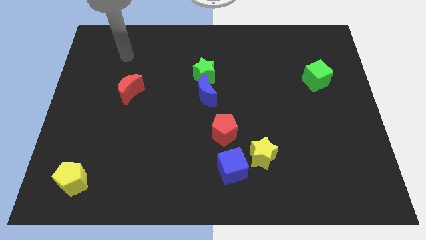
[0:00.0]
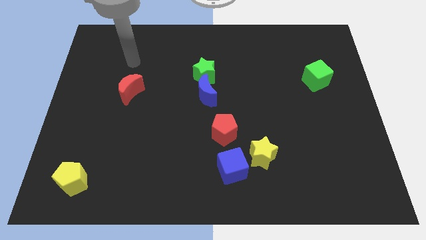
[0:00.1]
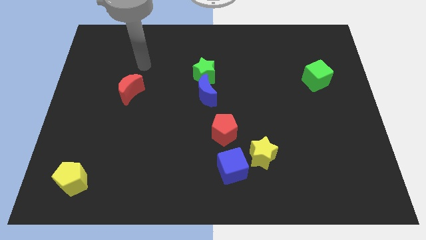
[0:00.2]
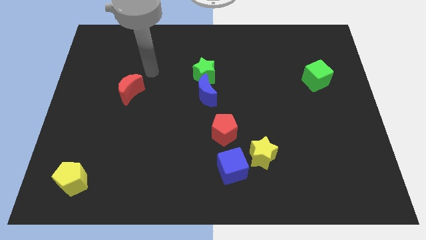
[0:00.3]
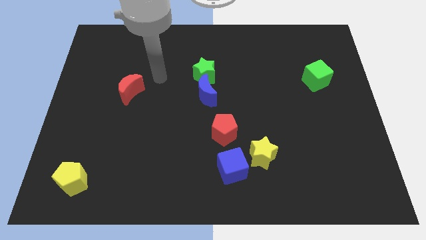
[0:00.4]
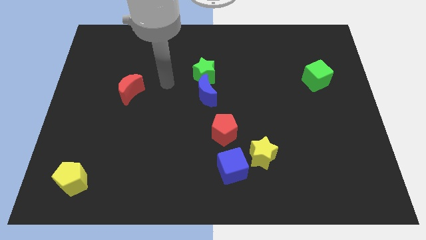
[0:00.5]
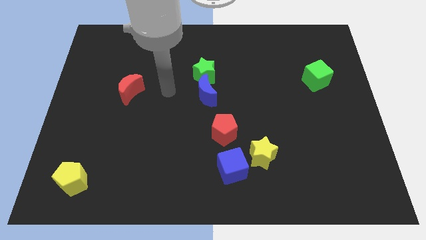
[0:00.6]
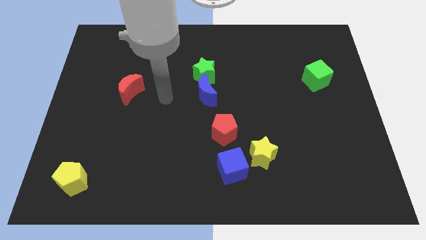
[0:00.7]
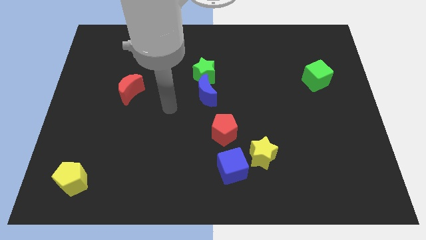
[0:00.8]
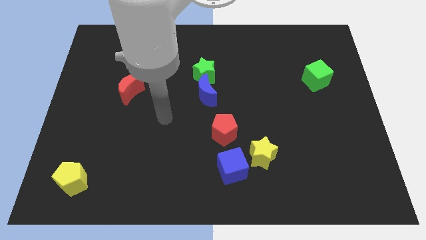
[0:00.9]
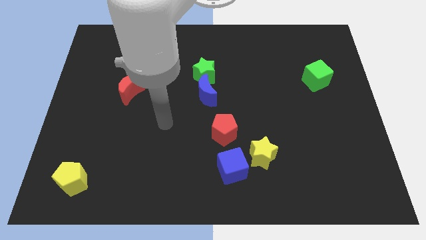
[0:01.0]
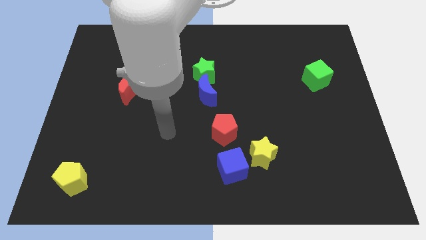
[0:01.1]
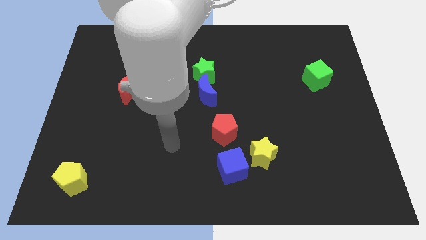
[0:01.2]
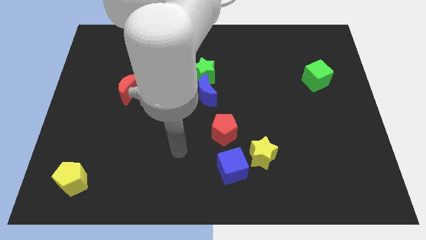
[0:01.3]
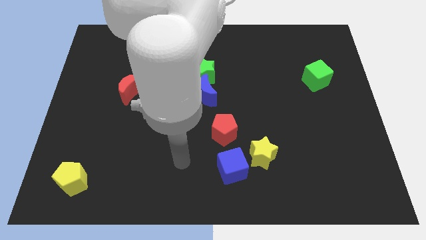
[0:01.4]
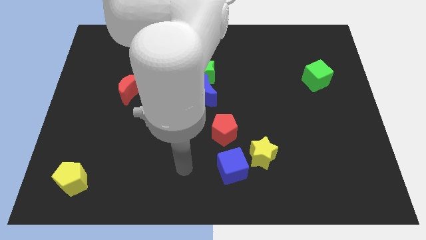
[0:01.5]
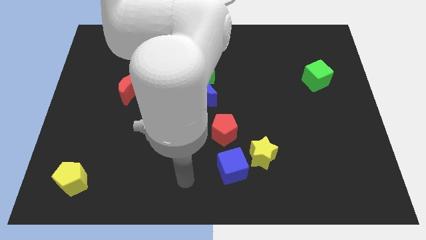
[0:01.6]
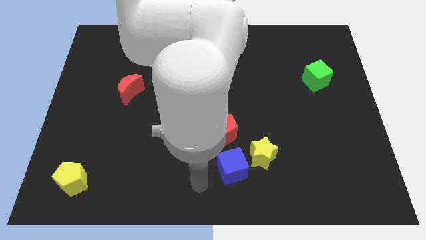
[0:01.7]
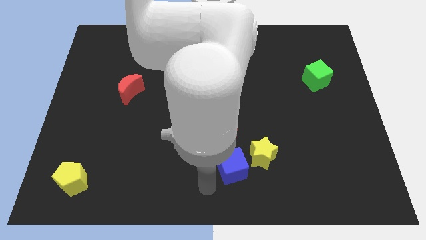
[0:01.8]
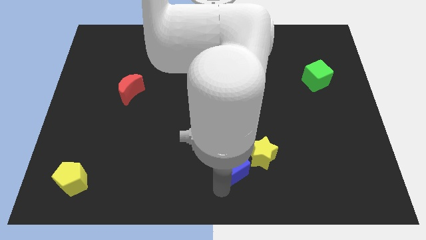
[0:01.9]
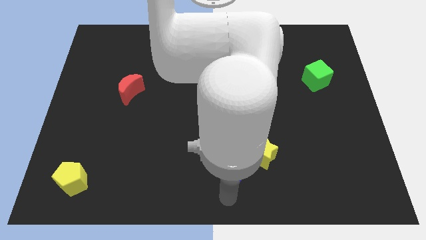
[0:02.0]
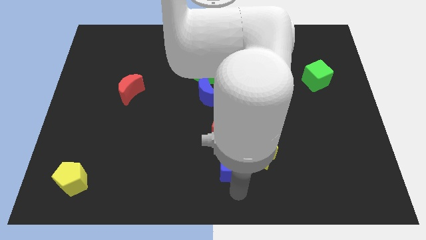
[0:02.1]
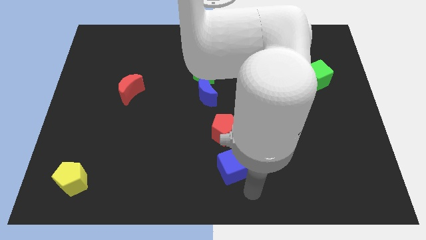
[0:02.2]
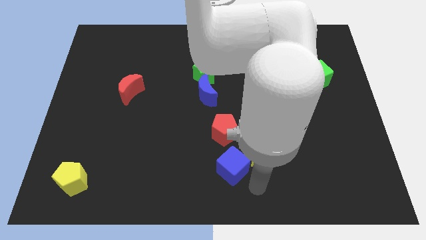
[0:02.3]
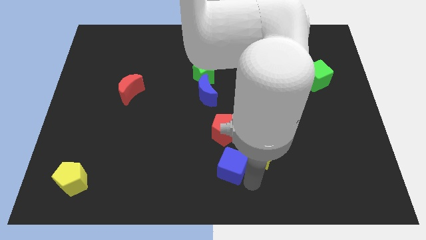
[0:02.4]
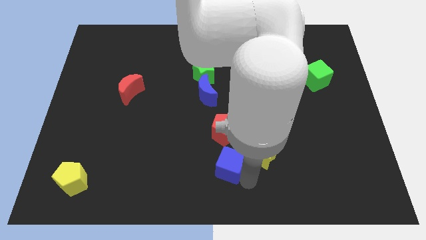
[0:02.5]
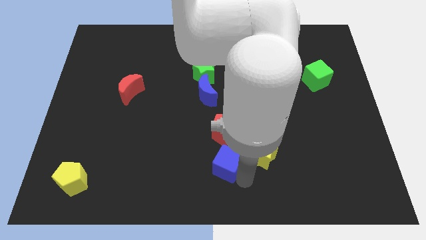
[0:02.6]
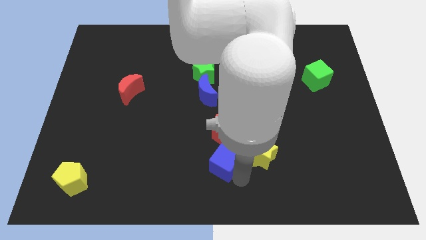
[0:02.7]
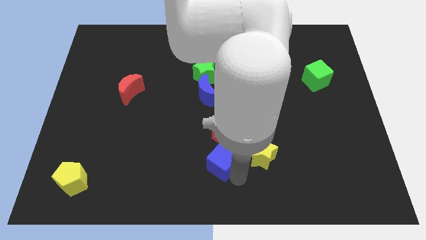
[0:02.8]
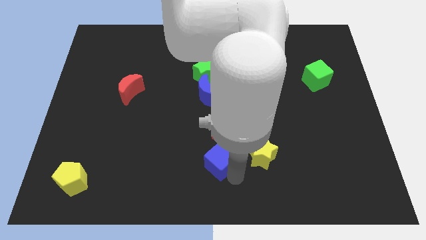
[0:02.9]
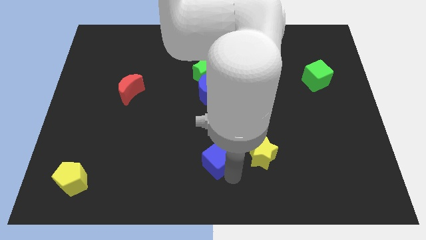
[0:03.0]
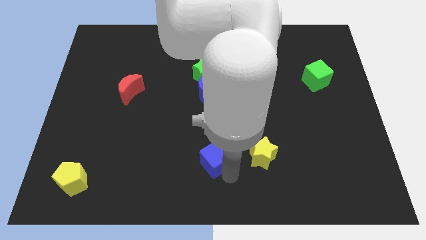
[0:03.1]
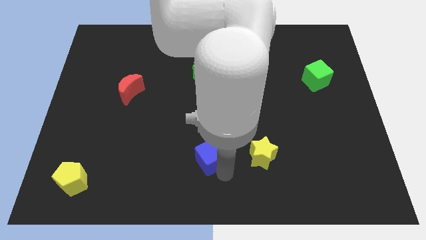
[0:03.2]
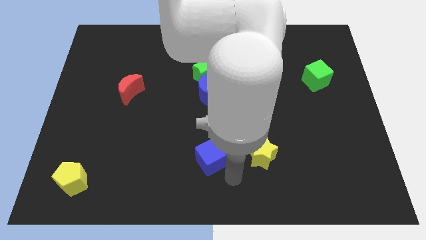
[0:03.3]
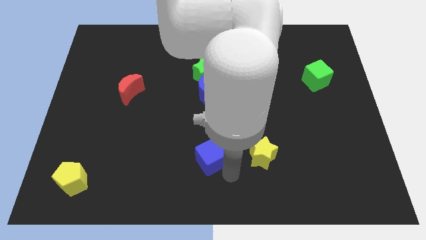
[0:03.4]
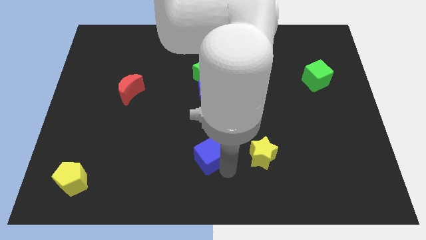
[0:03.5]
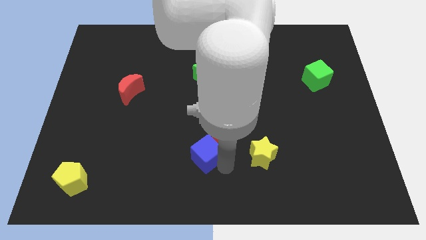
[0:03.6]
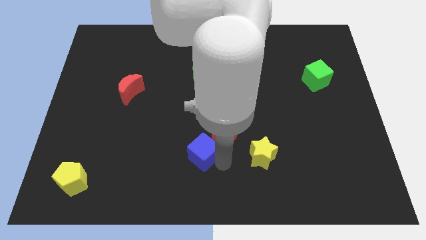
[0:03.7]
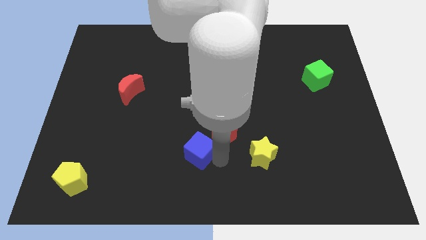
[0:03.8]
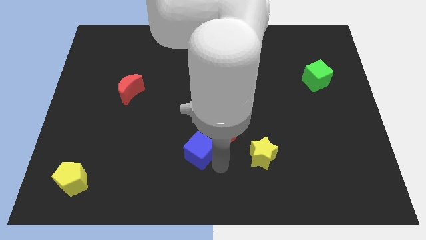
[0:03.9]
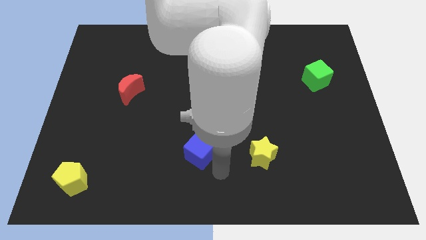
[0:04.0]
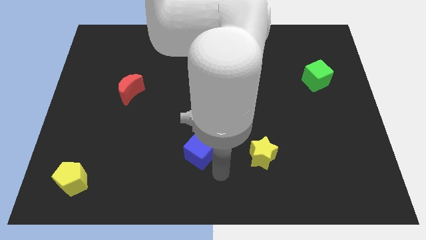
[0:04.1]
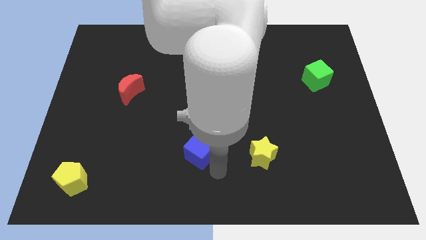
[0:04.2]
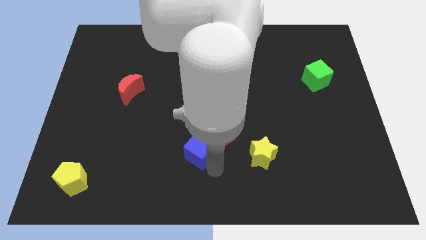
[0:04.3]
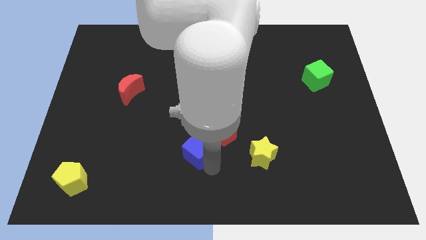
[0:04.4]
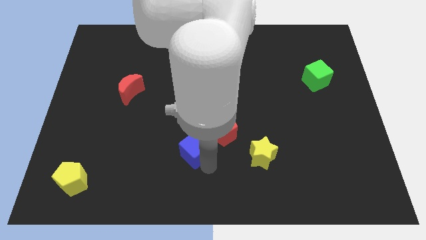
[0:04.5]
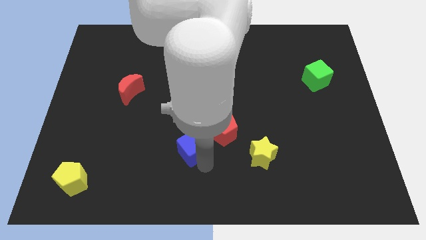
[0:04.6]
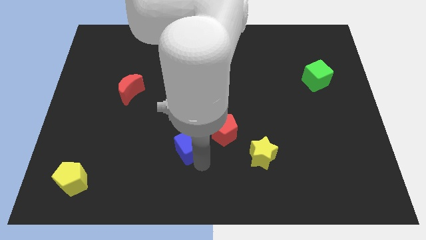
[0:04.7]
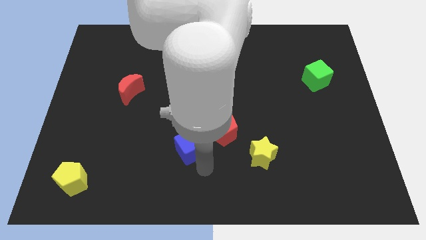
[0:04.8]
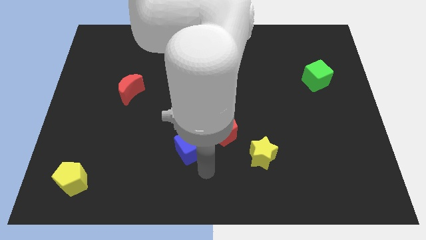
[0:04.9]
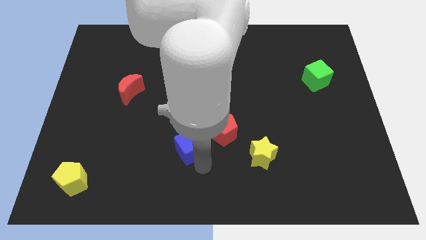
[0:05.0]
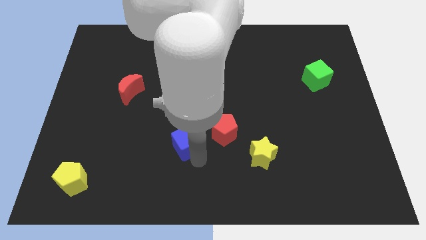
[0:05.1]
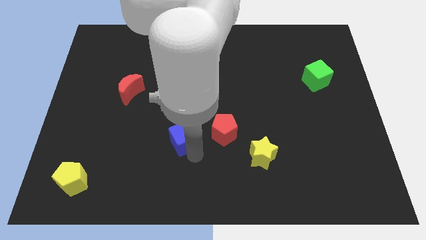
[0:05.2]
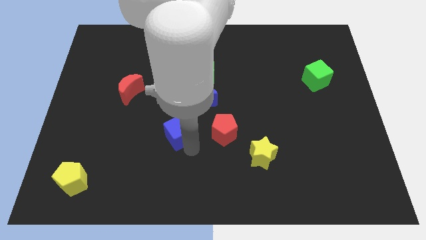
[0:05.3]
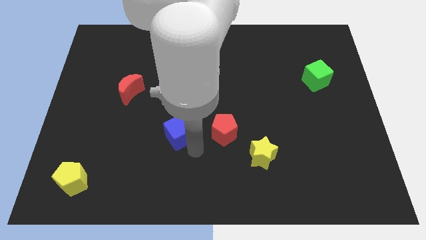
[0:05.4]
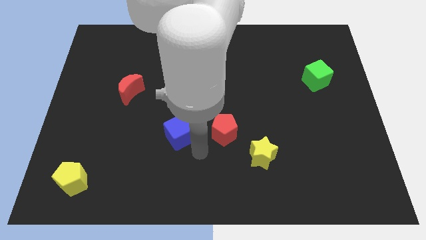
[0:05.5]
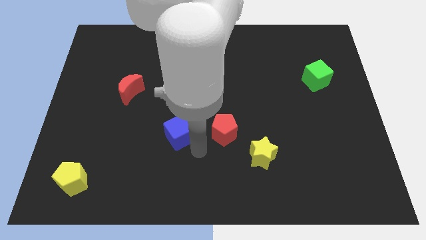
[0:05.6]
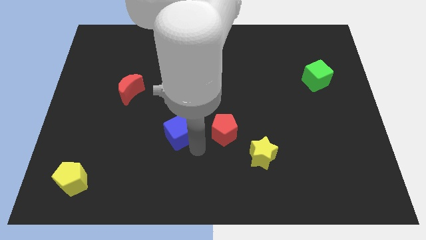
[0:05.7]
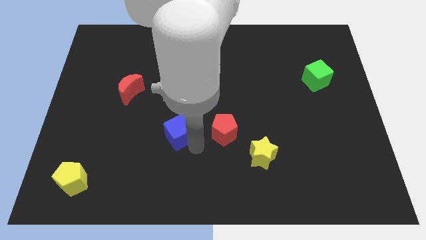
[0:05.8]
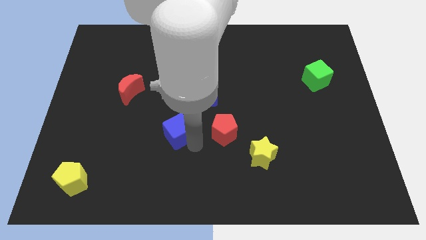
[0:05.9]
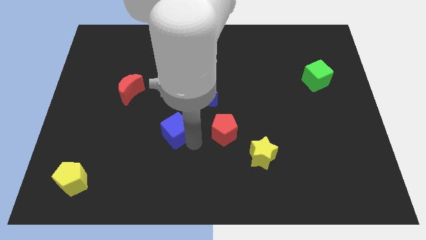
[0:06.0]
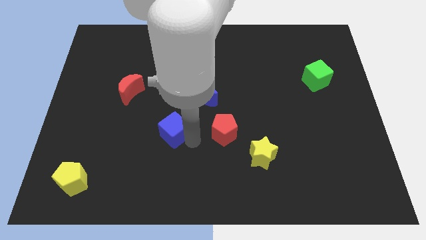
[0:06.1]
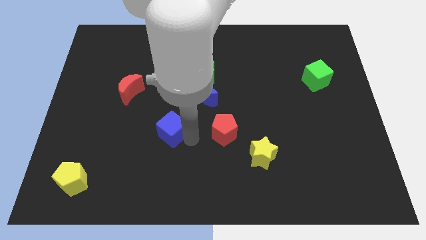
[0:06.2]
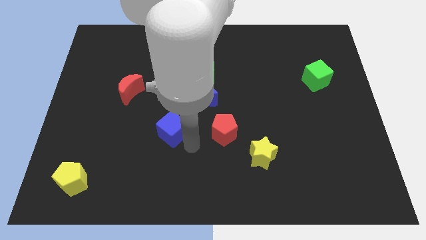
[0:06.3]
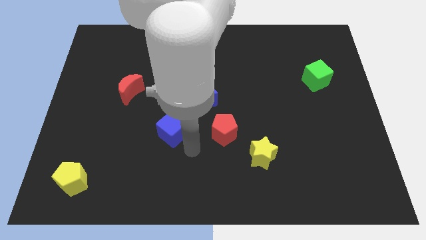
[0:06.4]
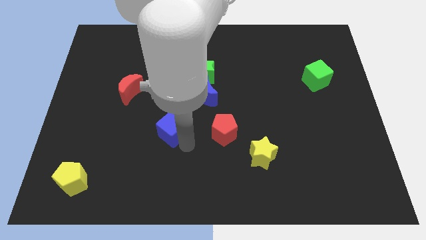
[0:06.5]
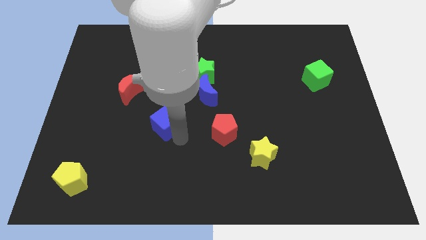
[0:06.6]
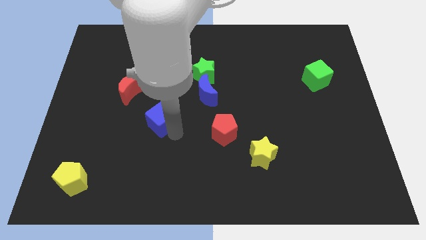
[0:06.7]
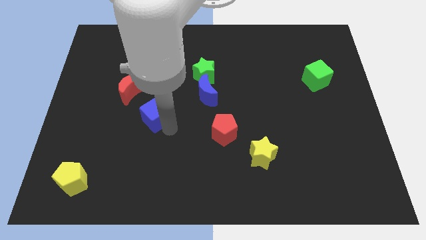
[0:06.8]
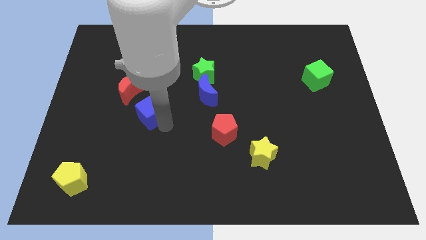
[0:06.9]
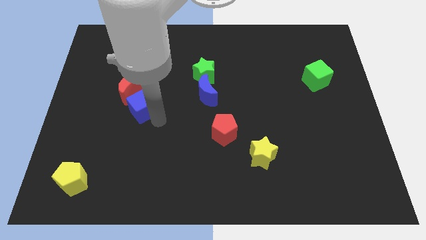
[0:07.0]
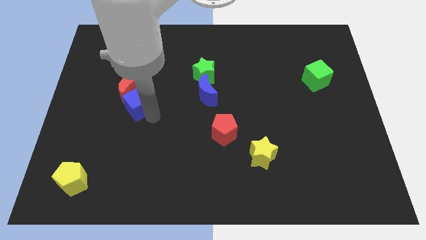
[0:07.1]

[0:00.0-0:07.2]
push the blue cube towards the red moon

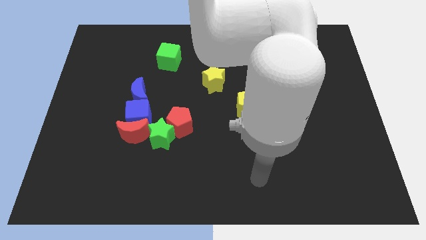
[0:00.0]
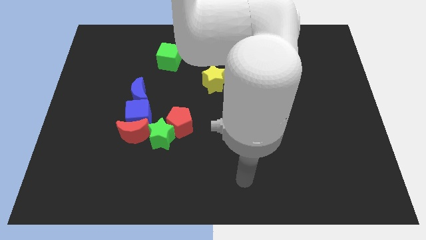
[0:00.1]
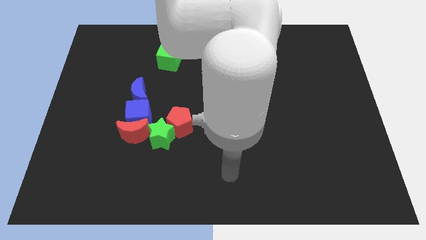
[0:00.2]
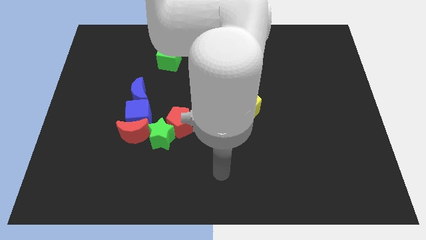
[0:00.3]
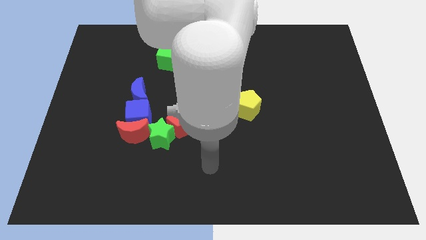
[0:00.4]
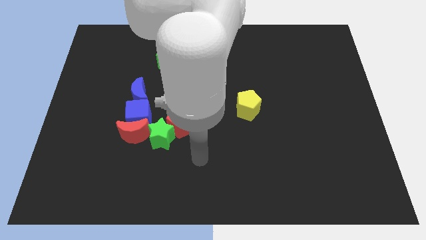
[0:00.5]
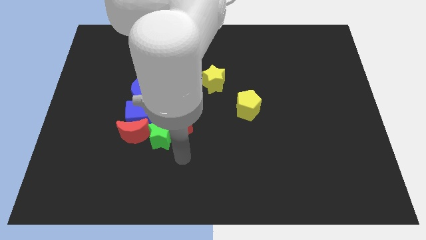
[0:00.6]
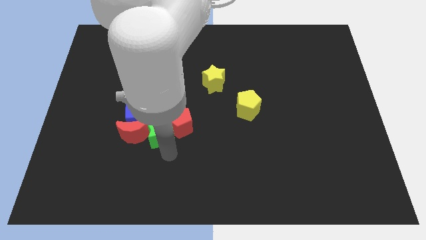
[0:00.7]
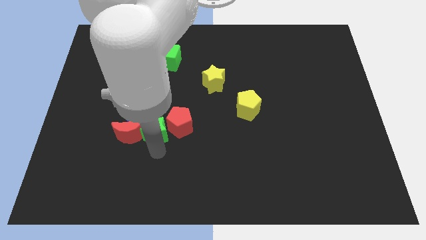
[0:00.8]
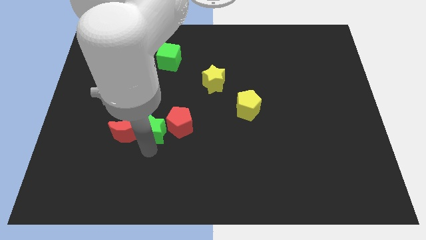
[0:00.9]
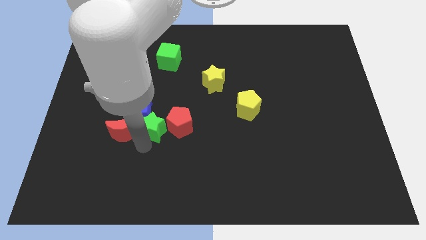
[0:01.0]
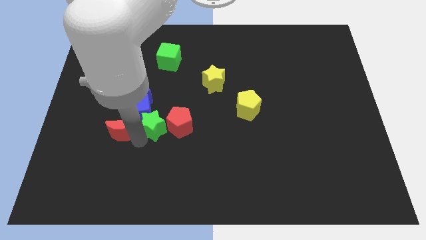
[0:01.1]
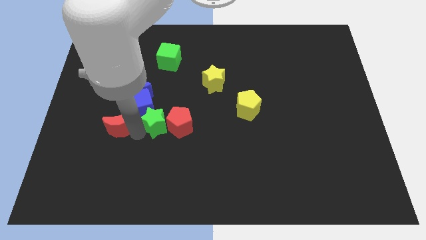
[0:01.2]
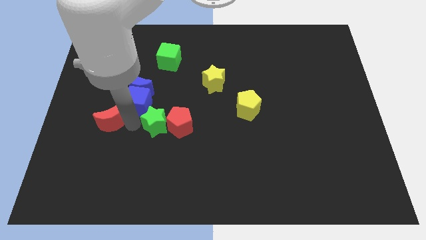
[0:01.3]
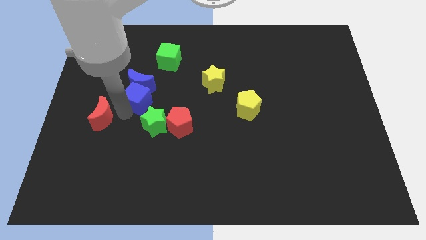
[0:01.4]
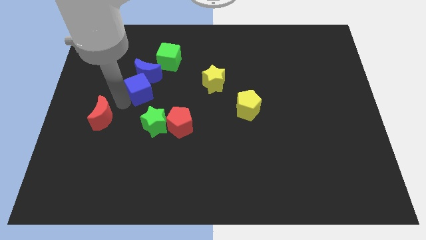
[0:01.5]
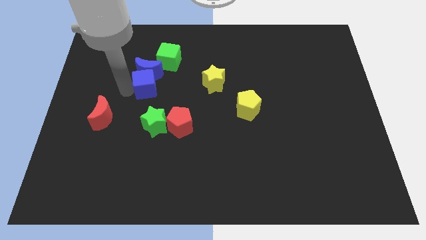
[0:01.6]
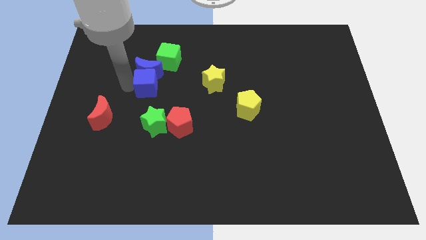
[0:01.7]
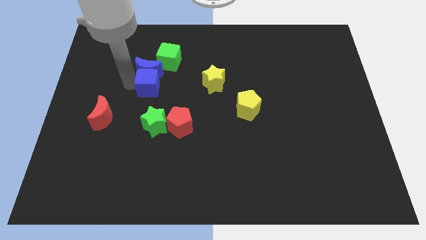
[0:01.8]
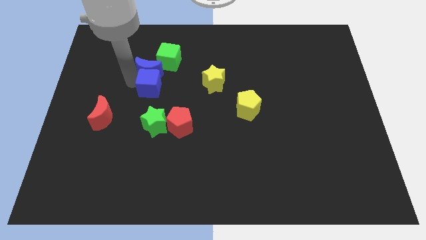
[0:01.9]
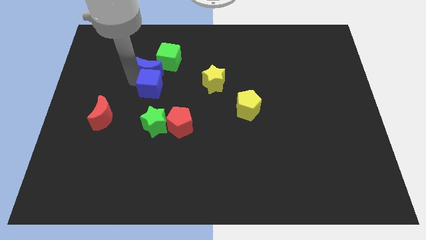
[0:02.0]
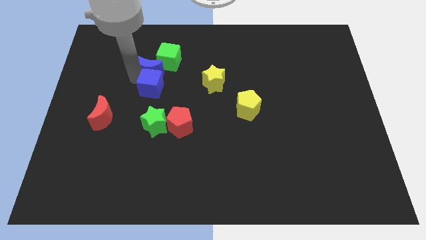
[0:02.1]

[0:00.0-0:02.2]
move the blue moon towards the green cube
